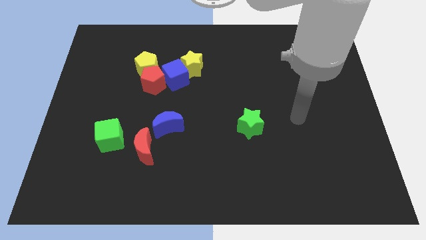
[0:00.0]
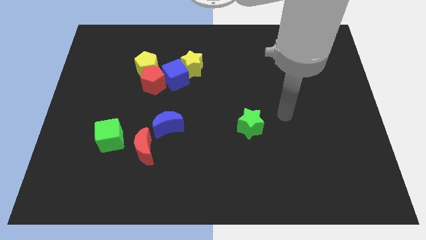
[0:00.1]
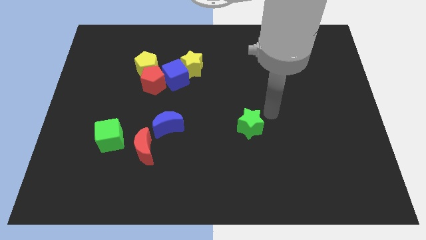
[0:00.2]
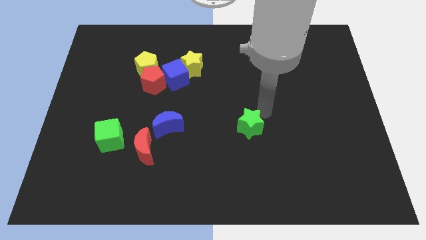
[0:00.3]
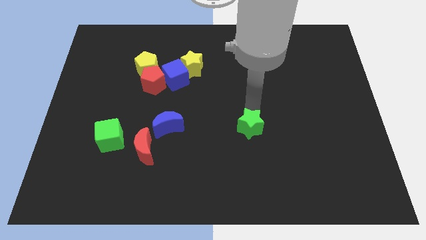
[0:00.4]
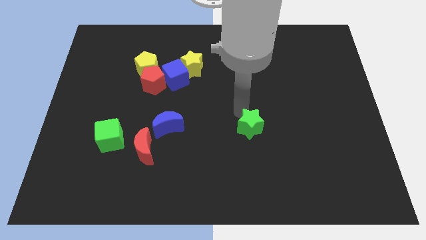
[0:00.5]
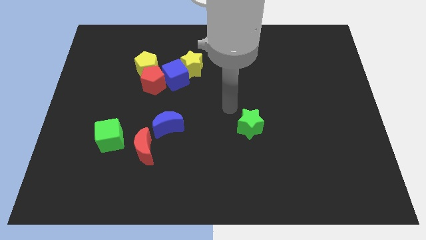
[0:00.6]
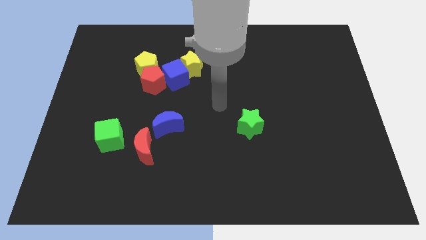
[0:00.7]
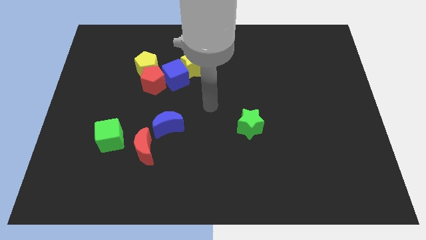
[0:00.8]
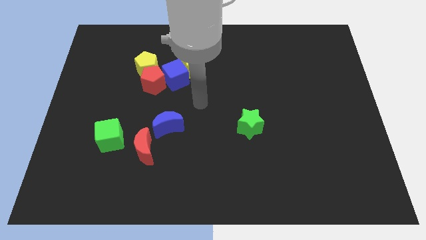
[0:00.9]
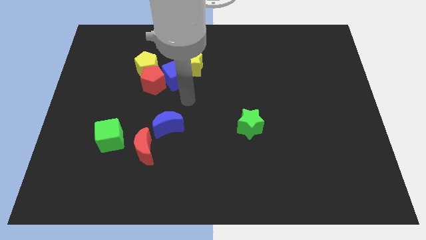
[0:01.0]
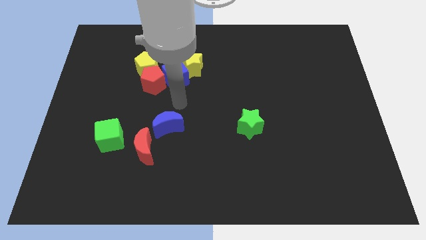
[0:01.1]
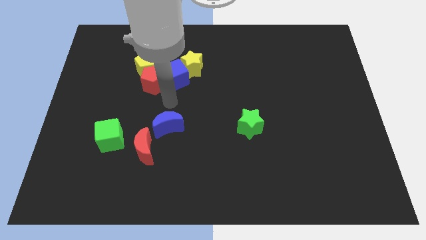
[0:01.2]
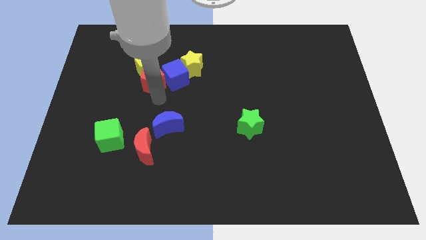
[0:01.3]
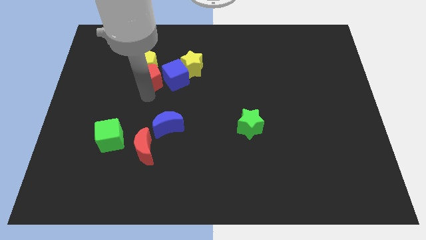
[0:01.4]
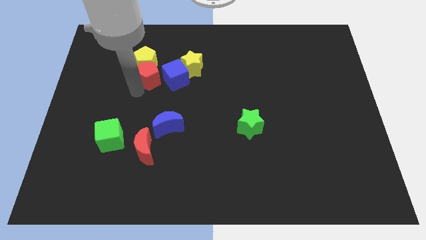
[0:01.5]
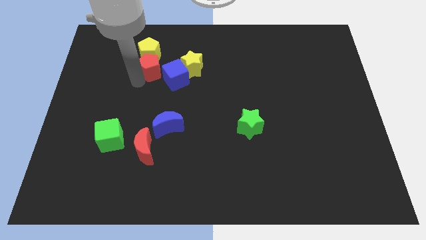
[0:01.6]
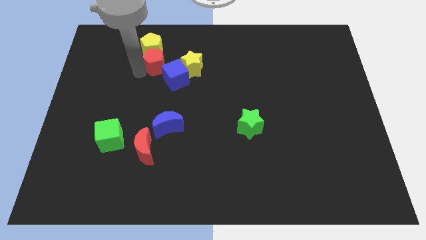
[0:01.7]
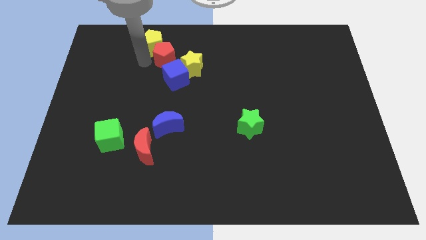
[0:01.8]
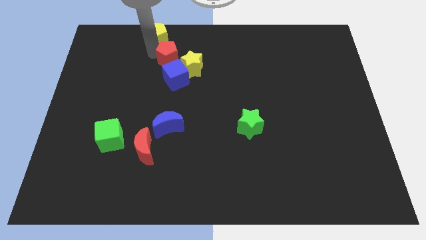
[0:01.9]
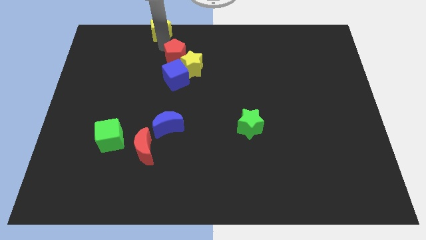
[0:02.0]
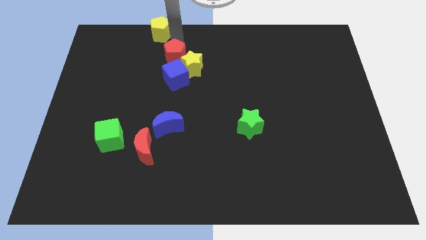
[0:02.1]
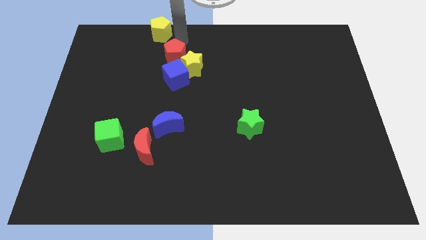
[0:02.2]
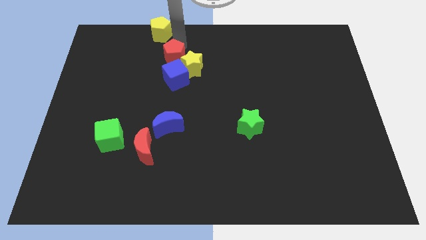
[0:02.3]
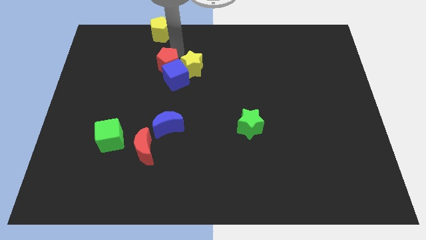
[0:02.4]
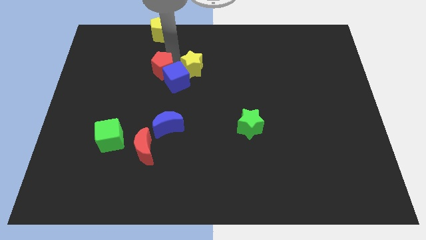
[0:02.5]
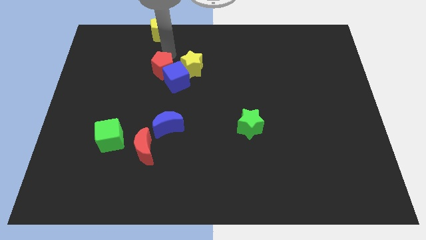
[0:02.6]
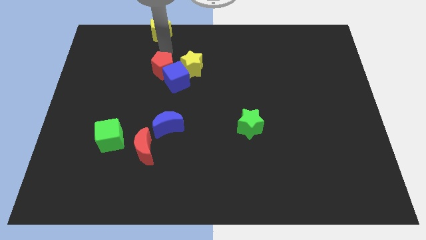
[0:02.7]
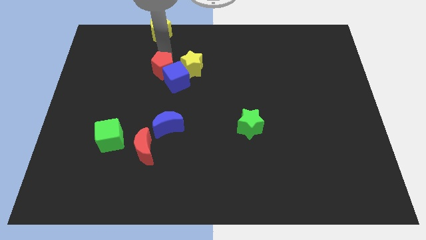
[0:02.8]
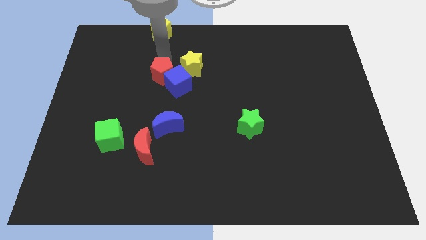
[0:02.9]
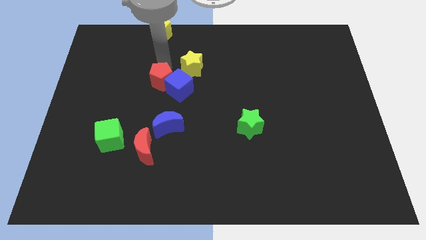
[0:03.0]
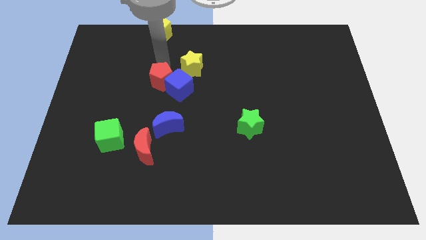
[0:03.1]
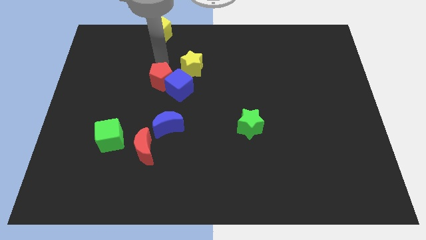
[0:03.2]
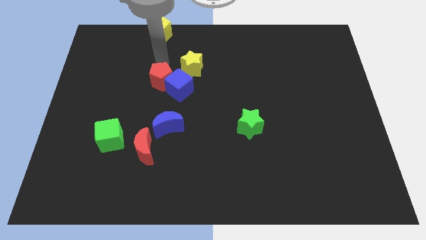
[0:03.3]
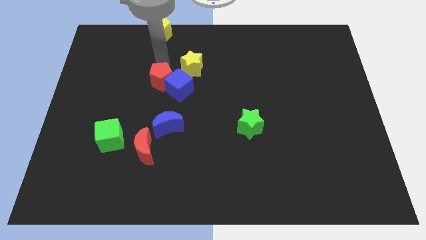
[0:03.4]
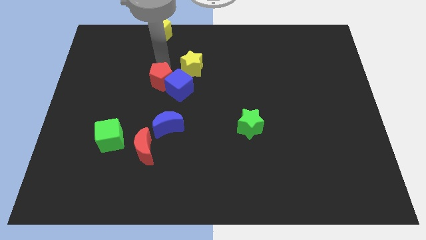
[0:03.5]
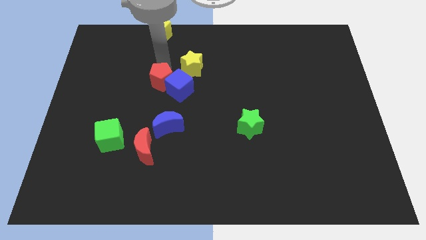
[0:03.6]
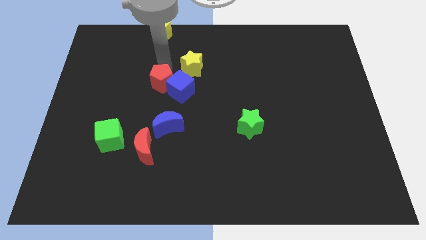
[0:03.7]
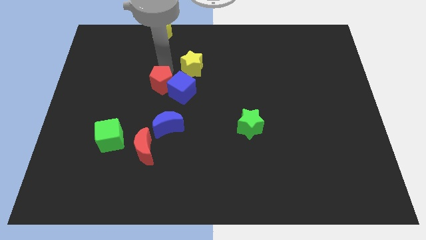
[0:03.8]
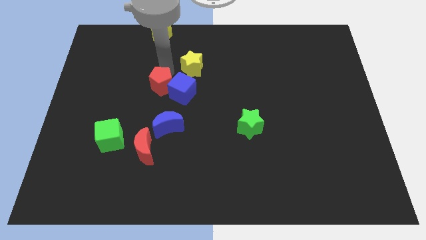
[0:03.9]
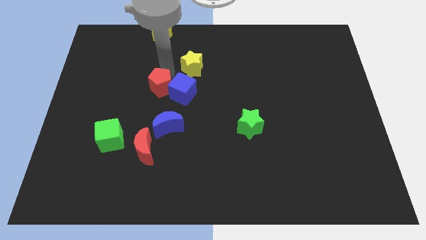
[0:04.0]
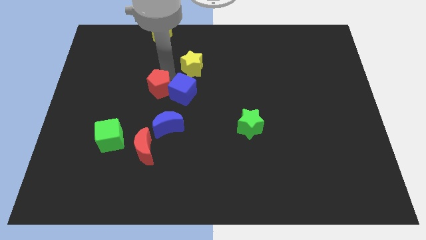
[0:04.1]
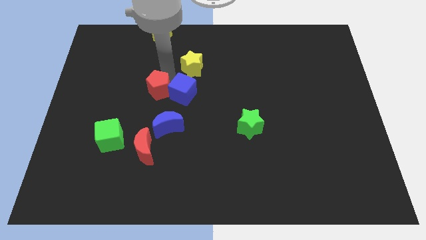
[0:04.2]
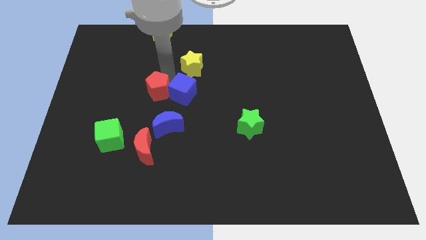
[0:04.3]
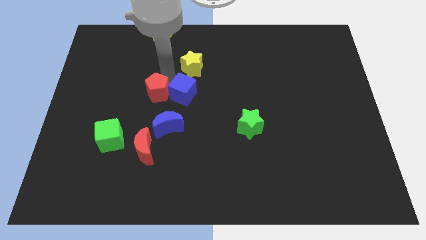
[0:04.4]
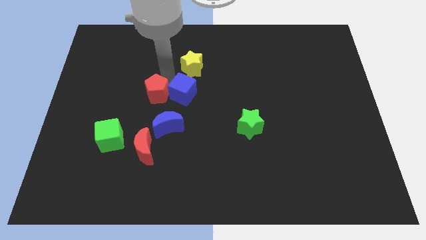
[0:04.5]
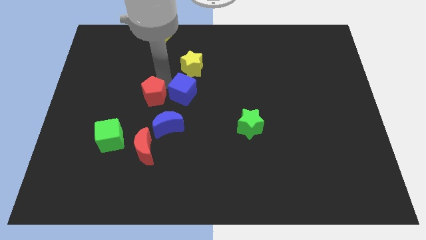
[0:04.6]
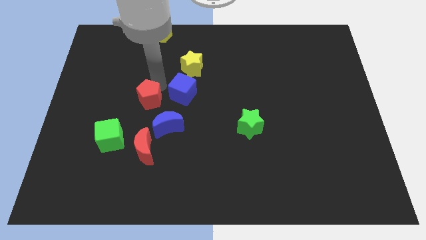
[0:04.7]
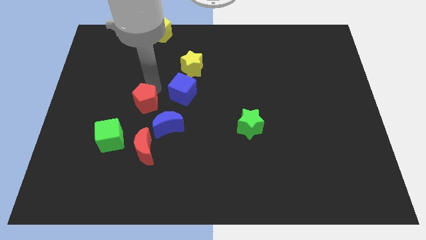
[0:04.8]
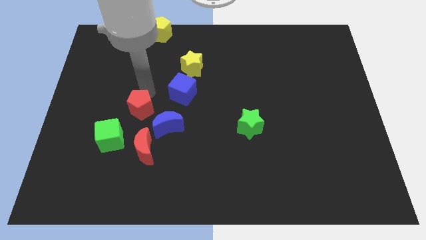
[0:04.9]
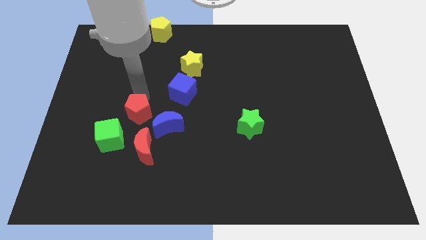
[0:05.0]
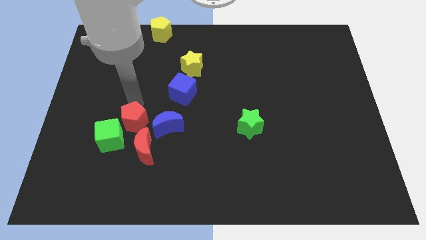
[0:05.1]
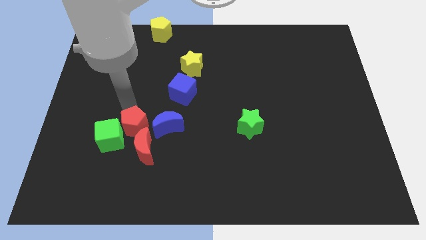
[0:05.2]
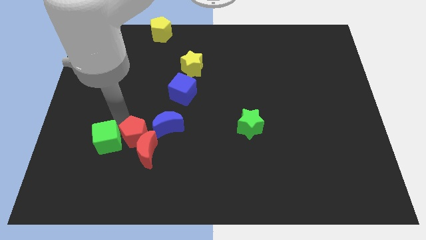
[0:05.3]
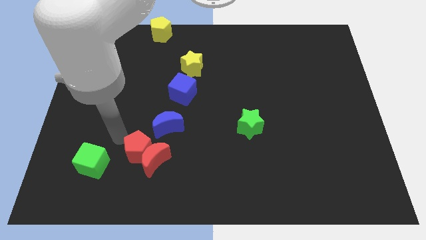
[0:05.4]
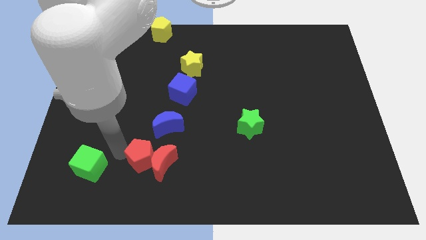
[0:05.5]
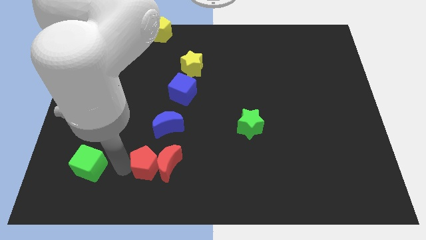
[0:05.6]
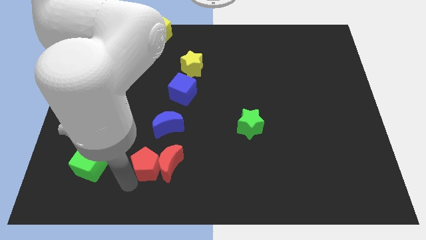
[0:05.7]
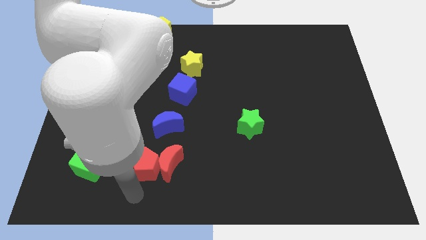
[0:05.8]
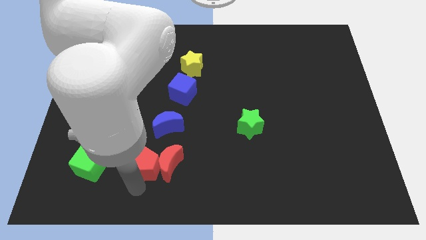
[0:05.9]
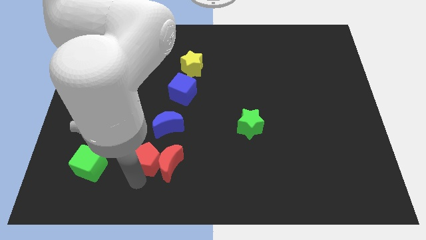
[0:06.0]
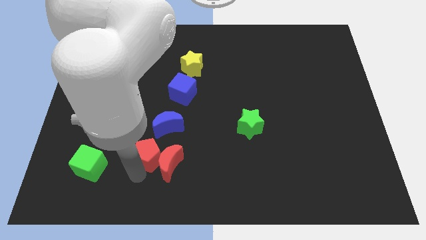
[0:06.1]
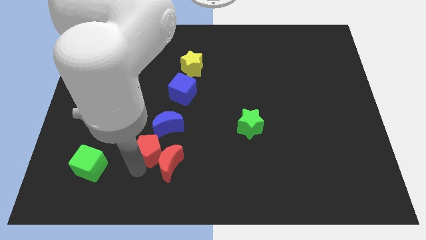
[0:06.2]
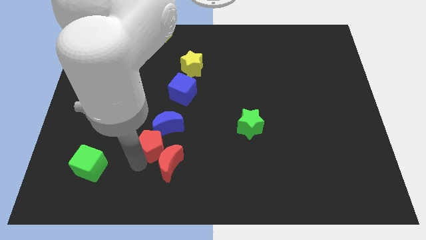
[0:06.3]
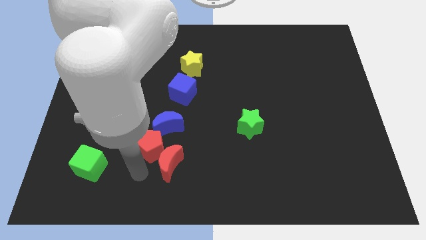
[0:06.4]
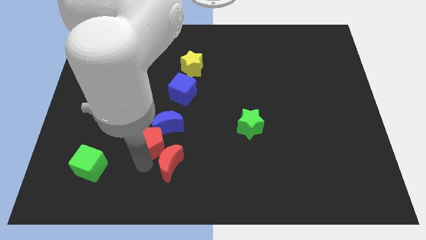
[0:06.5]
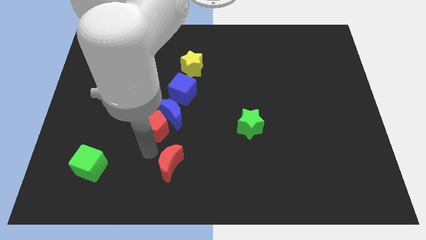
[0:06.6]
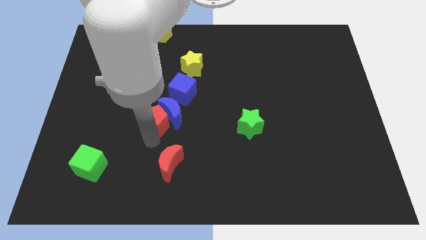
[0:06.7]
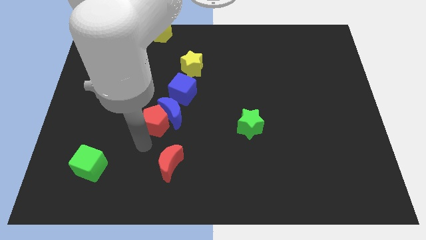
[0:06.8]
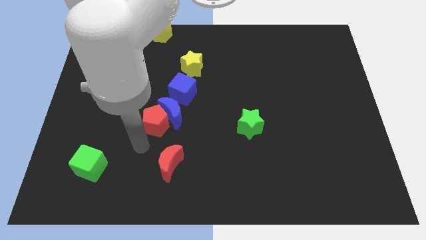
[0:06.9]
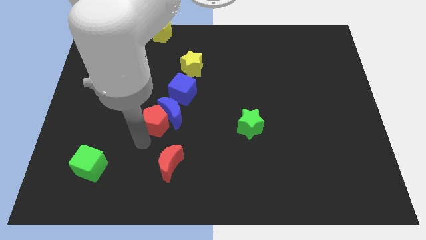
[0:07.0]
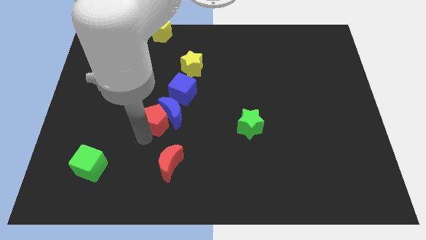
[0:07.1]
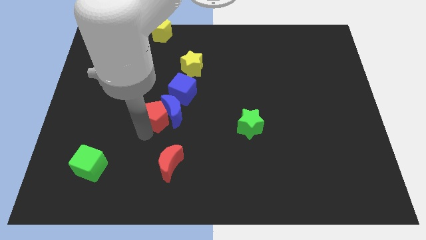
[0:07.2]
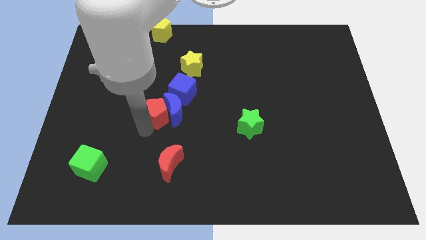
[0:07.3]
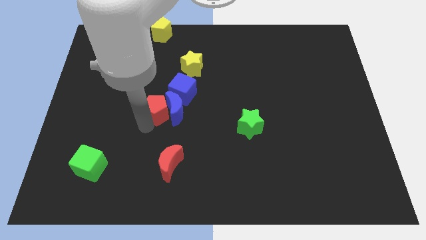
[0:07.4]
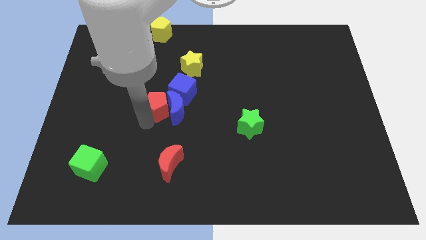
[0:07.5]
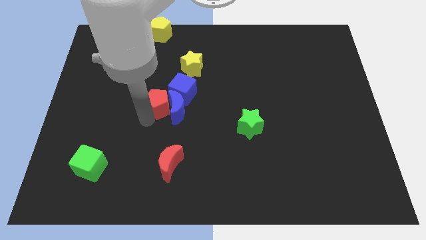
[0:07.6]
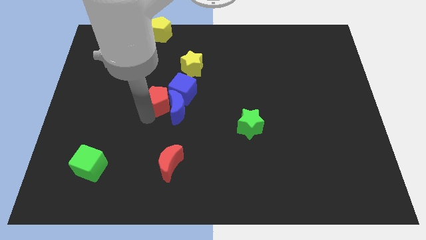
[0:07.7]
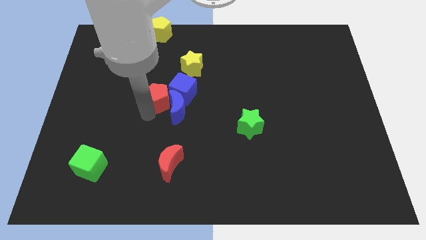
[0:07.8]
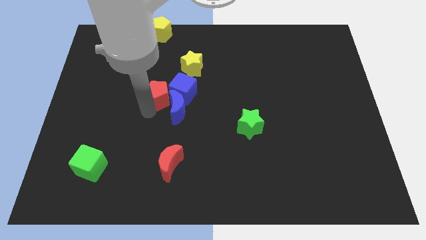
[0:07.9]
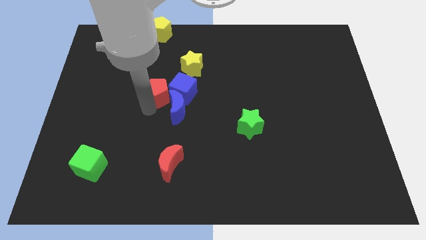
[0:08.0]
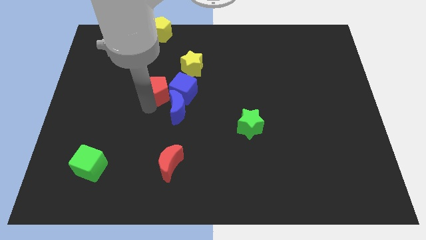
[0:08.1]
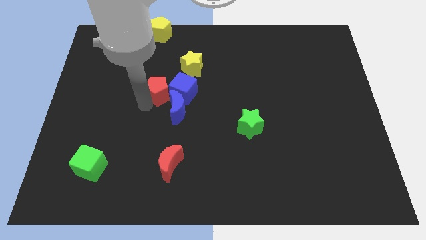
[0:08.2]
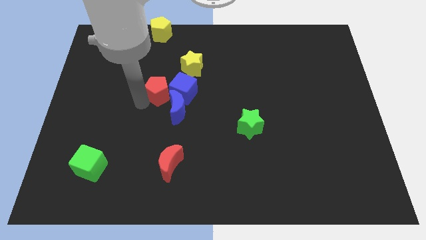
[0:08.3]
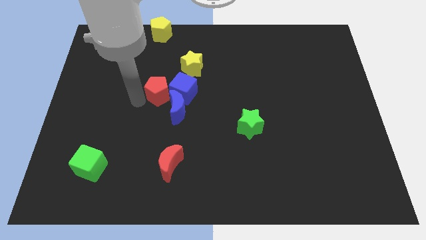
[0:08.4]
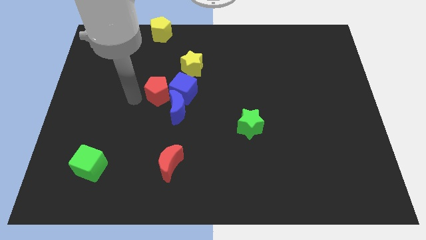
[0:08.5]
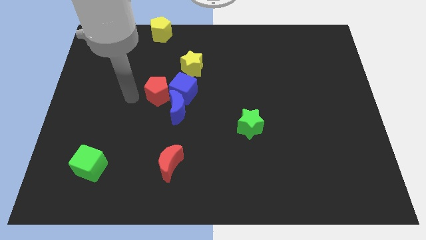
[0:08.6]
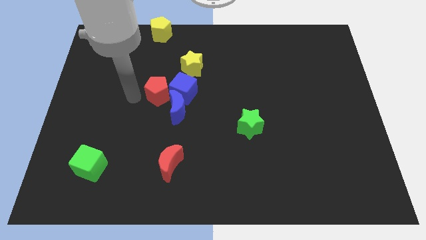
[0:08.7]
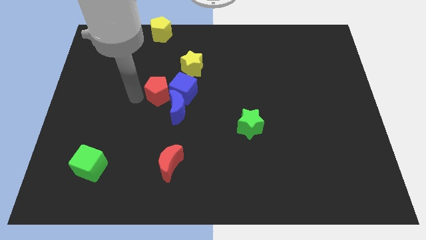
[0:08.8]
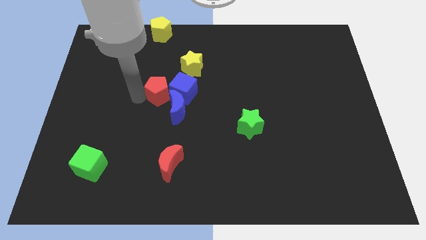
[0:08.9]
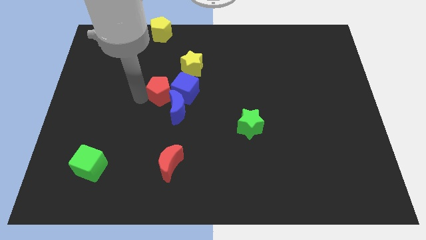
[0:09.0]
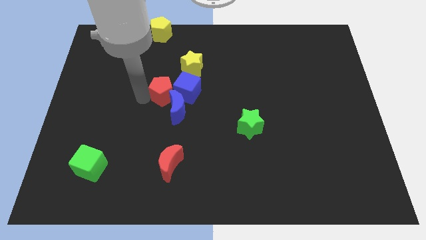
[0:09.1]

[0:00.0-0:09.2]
push the red pentagon to the middle of the board
